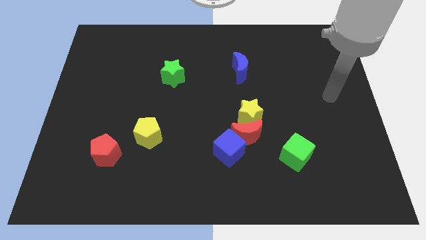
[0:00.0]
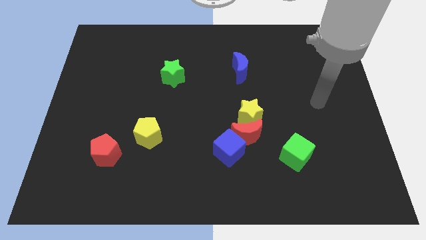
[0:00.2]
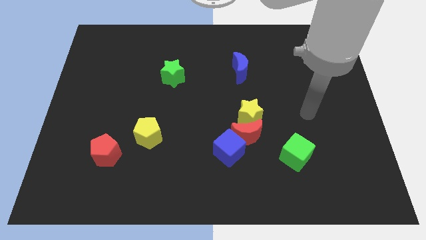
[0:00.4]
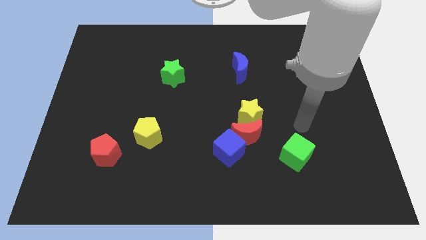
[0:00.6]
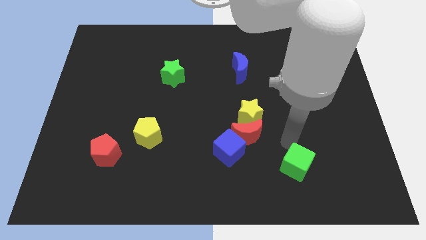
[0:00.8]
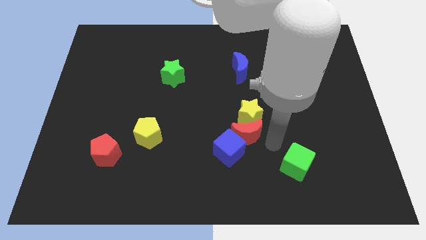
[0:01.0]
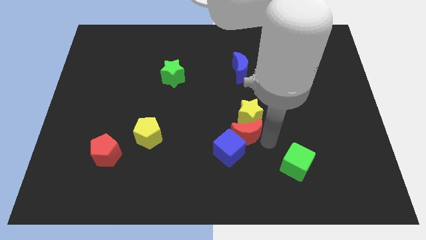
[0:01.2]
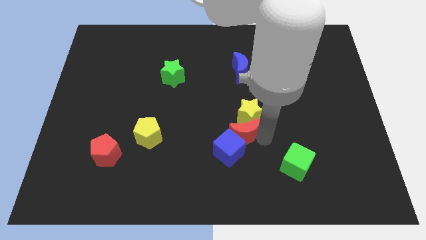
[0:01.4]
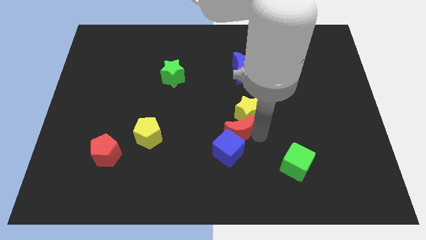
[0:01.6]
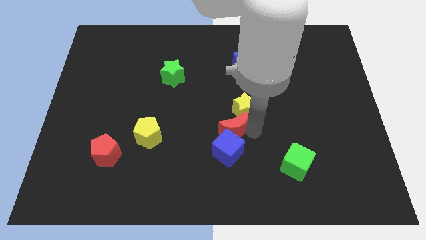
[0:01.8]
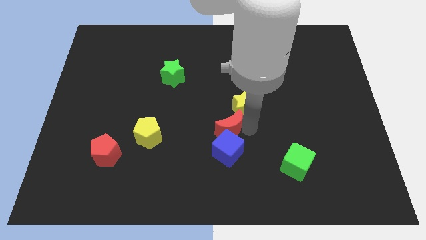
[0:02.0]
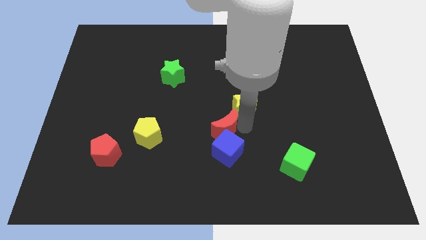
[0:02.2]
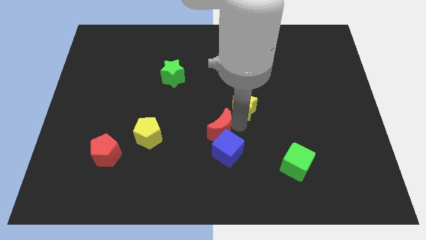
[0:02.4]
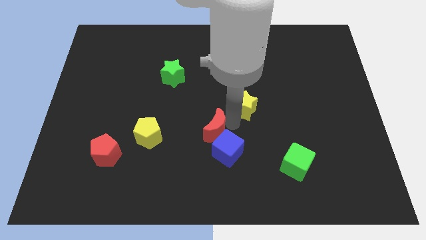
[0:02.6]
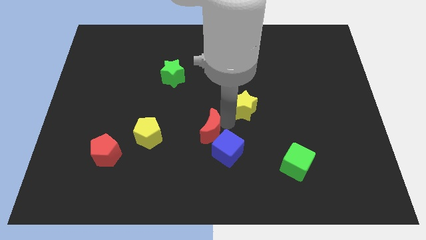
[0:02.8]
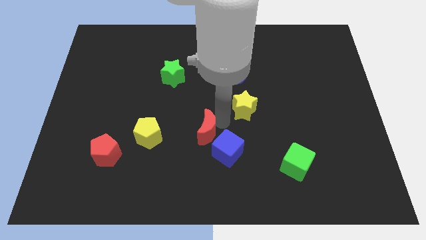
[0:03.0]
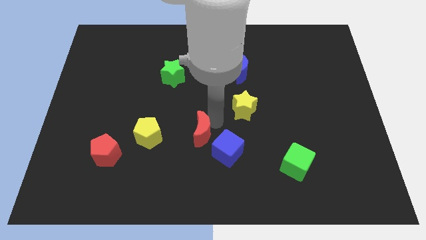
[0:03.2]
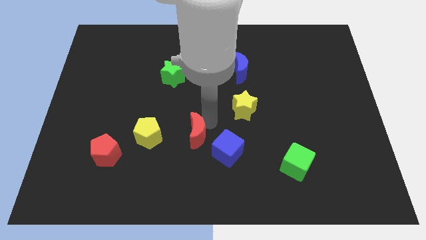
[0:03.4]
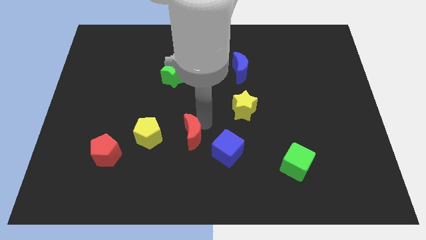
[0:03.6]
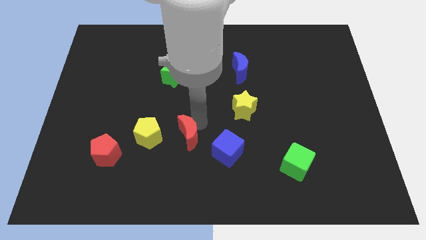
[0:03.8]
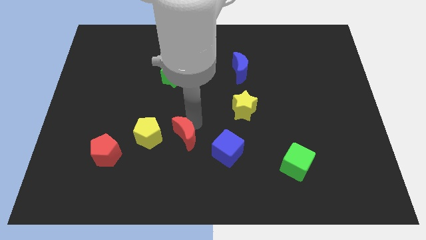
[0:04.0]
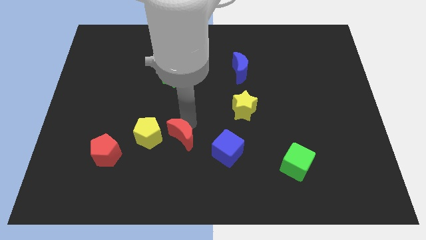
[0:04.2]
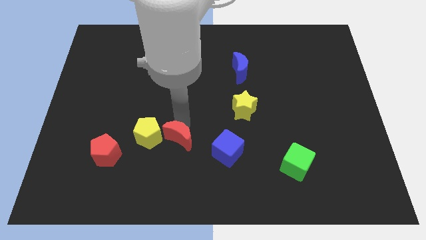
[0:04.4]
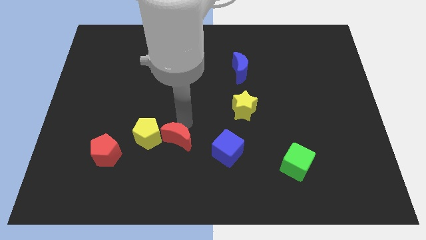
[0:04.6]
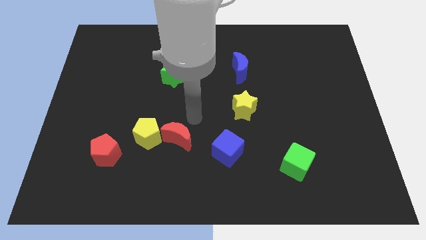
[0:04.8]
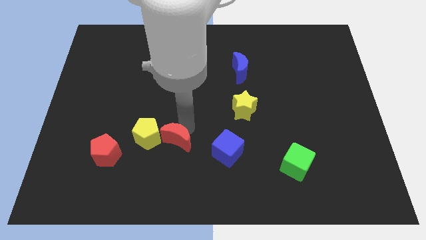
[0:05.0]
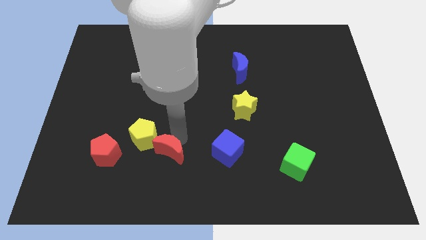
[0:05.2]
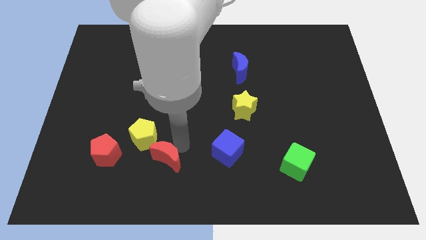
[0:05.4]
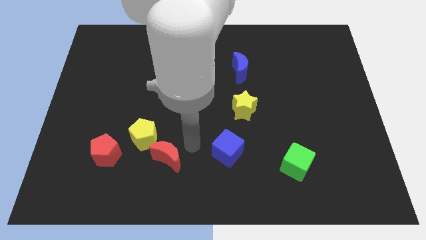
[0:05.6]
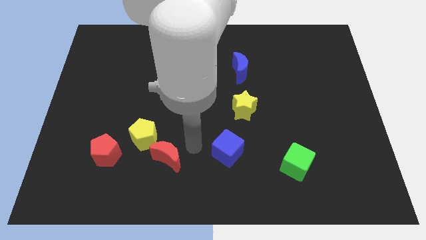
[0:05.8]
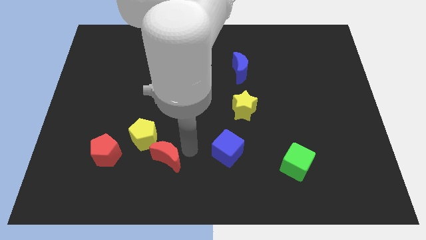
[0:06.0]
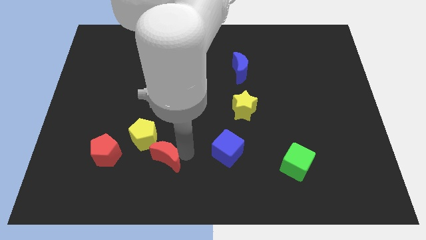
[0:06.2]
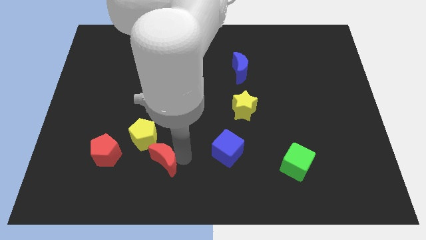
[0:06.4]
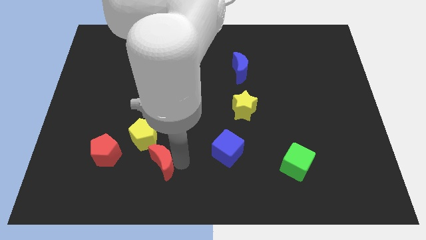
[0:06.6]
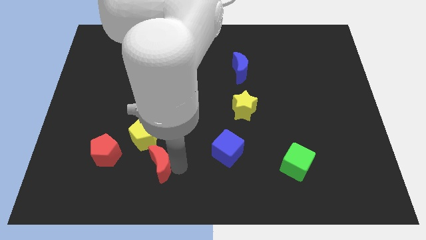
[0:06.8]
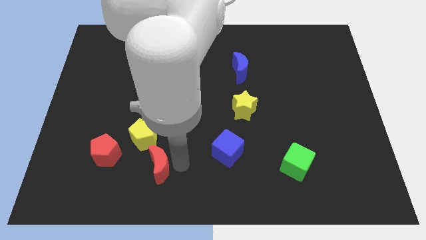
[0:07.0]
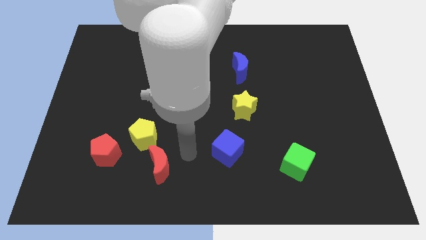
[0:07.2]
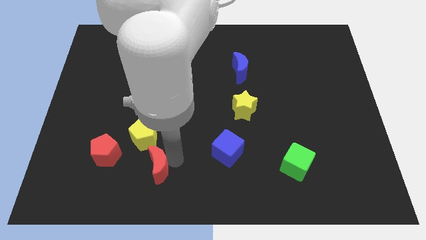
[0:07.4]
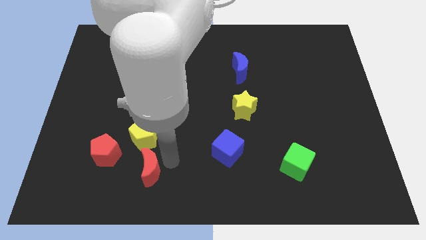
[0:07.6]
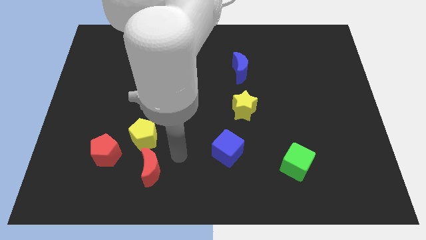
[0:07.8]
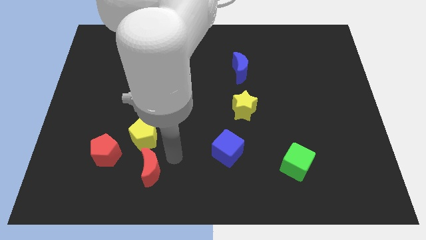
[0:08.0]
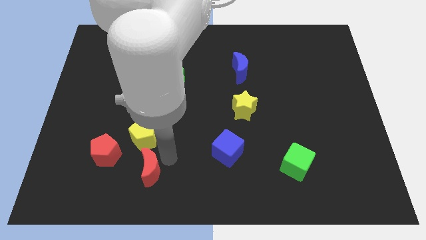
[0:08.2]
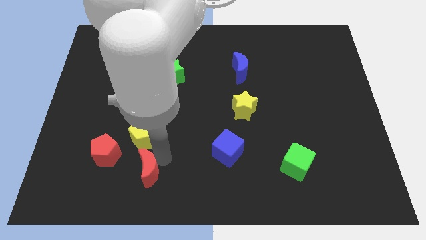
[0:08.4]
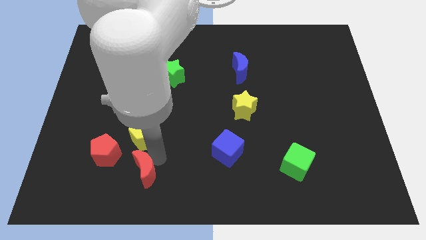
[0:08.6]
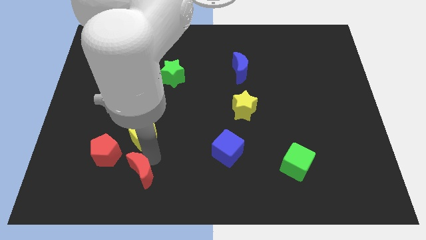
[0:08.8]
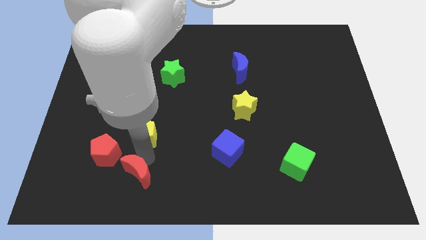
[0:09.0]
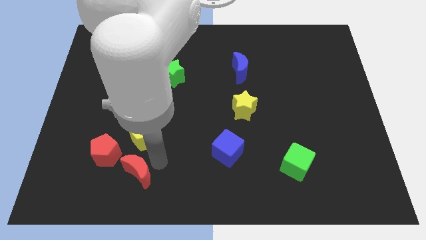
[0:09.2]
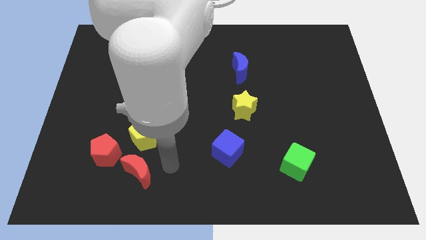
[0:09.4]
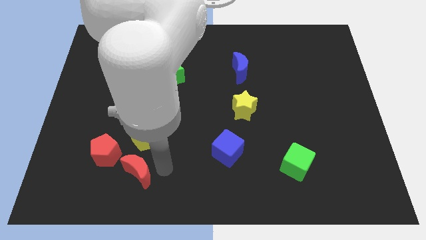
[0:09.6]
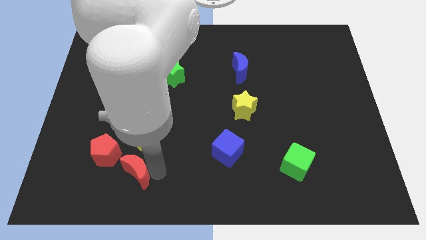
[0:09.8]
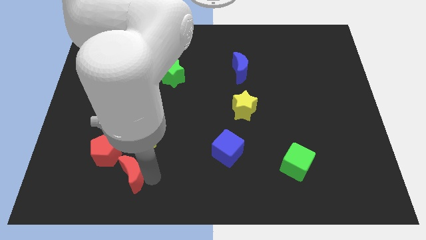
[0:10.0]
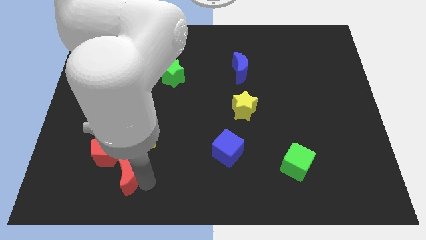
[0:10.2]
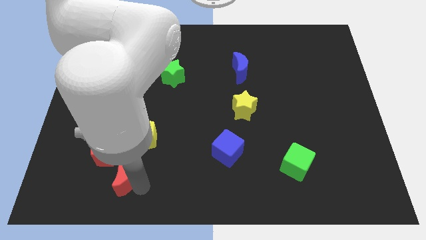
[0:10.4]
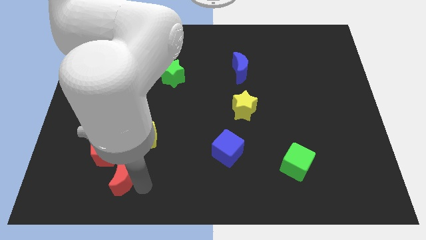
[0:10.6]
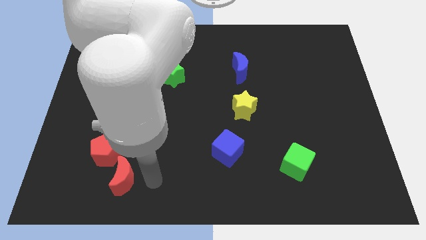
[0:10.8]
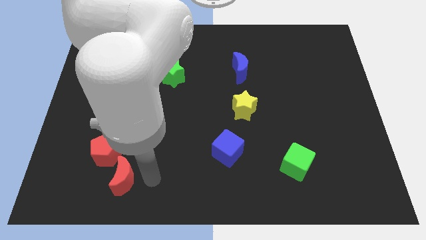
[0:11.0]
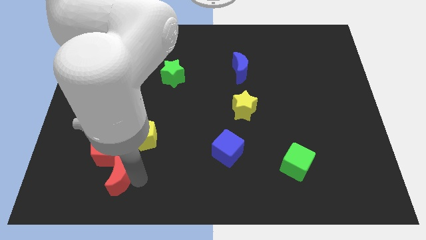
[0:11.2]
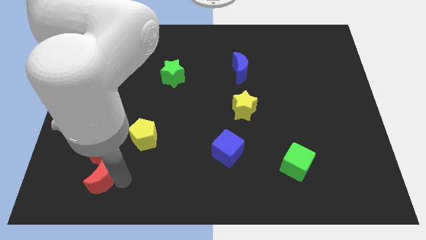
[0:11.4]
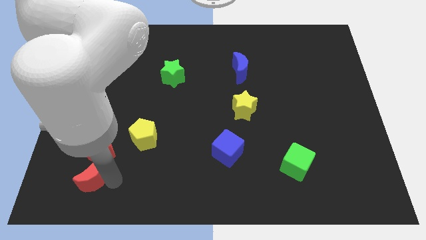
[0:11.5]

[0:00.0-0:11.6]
push the red moon to the bottom left side of the red pentagon

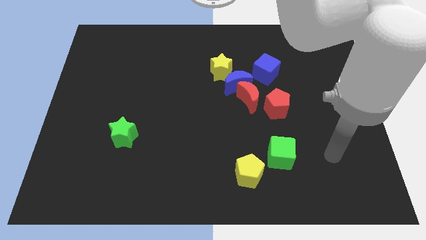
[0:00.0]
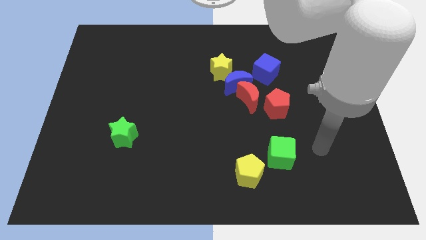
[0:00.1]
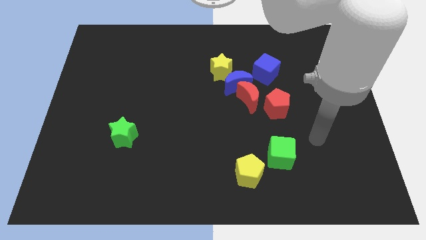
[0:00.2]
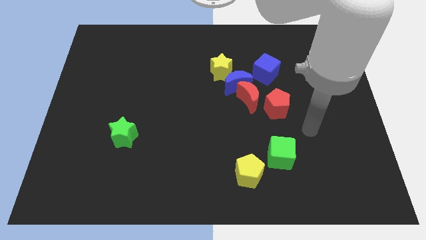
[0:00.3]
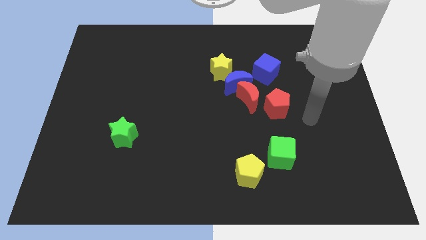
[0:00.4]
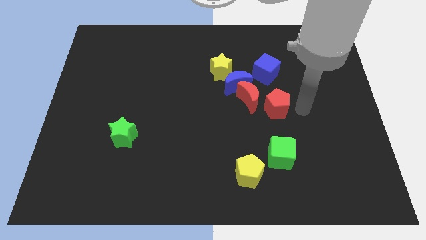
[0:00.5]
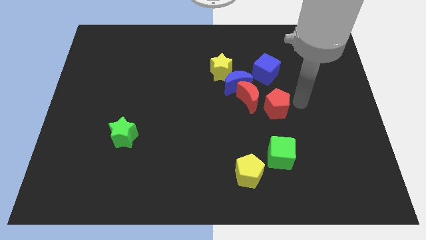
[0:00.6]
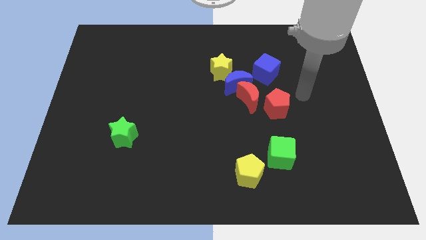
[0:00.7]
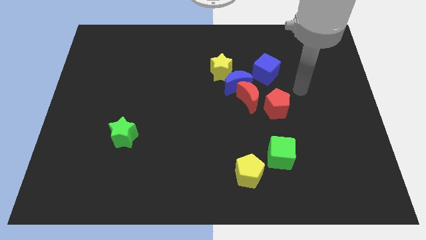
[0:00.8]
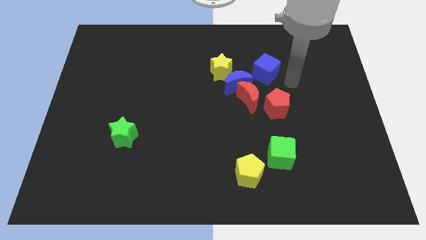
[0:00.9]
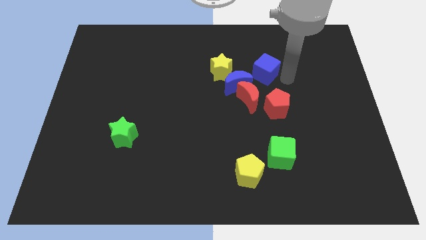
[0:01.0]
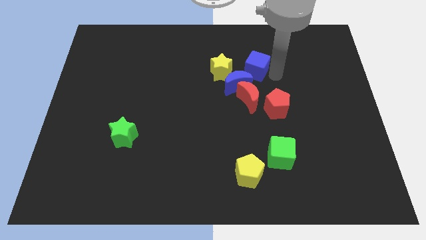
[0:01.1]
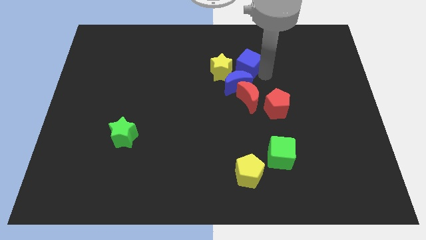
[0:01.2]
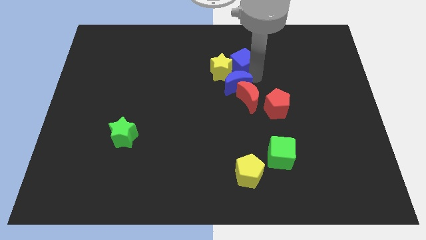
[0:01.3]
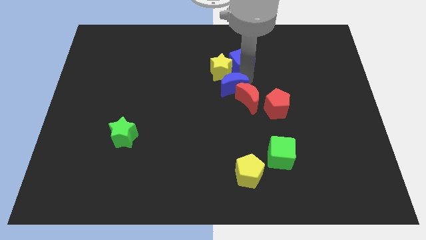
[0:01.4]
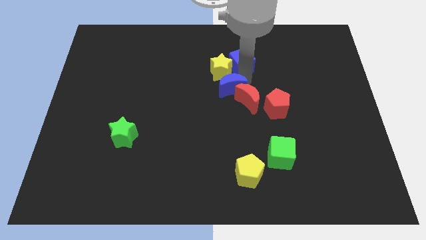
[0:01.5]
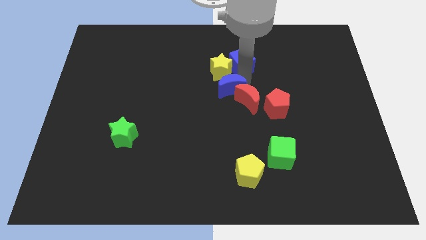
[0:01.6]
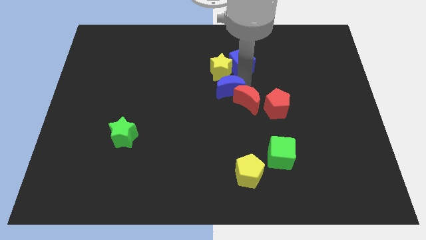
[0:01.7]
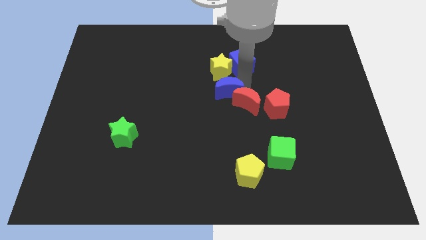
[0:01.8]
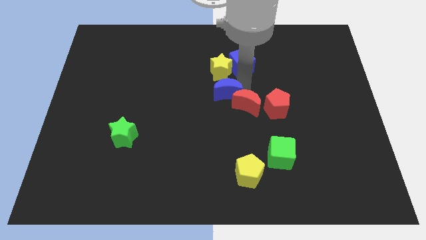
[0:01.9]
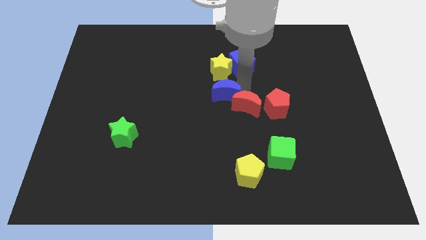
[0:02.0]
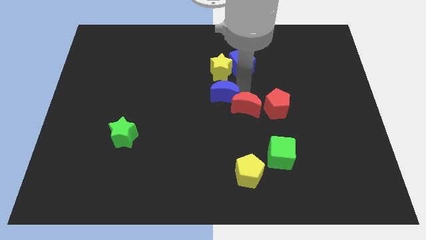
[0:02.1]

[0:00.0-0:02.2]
put the red moon to the bottom left of the red pentagon
